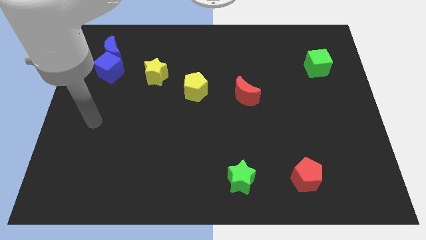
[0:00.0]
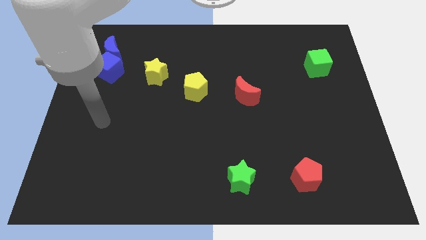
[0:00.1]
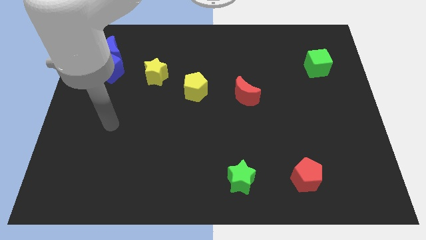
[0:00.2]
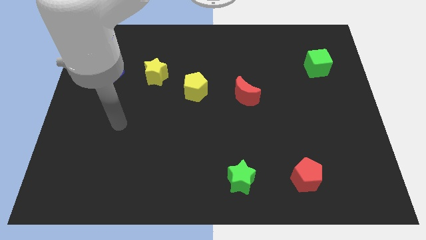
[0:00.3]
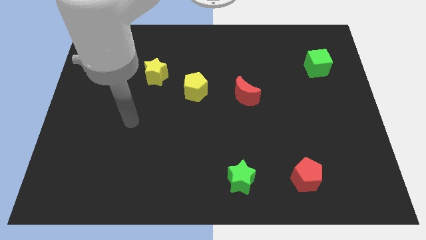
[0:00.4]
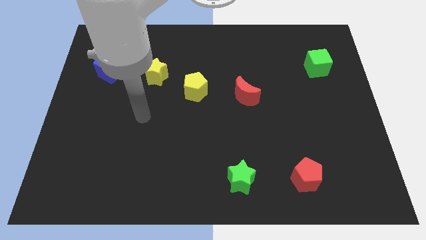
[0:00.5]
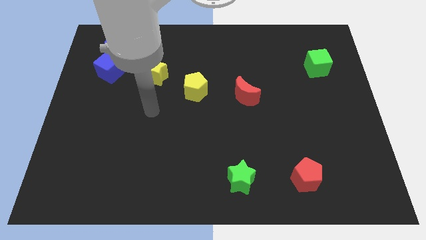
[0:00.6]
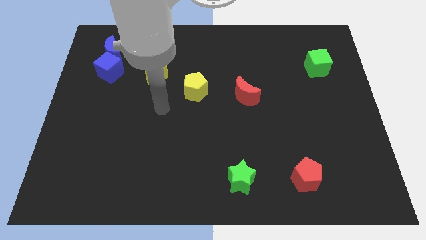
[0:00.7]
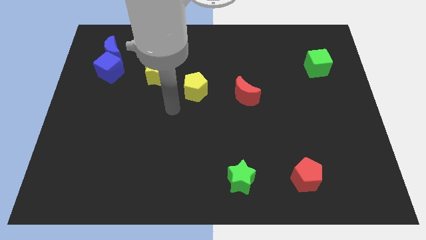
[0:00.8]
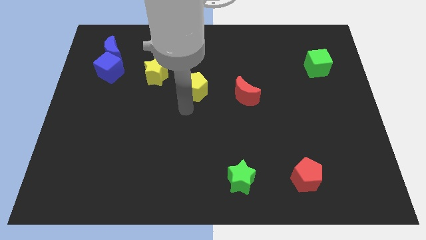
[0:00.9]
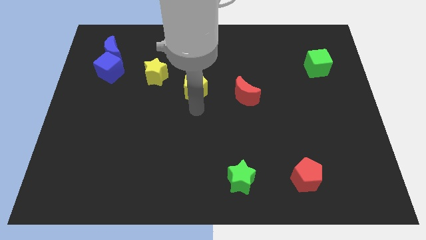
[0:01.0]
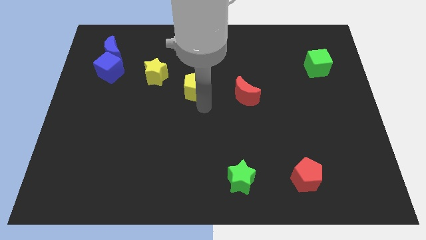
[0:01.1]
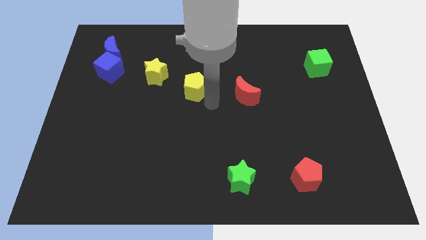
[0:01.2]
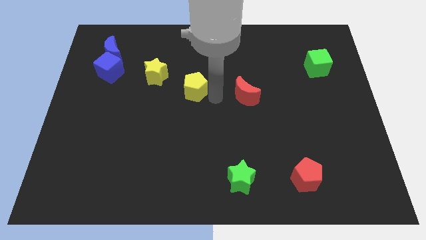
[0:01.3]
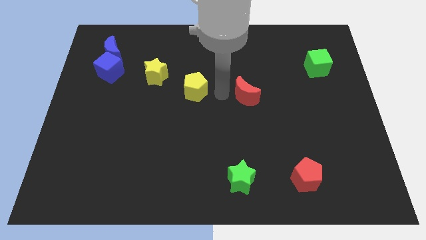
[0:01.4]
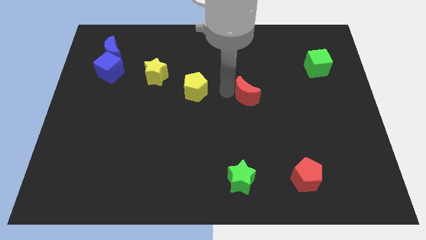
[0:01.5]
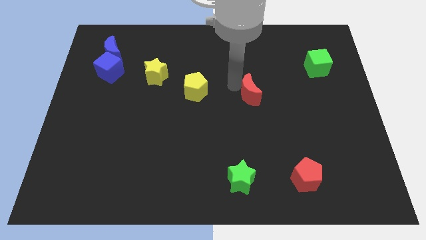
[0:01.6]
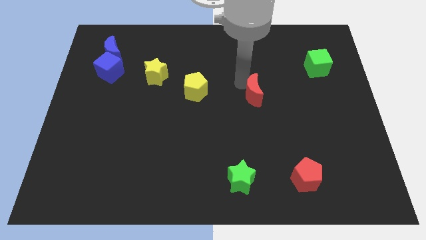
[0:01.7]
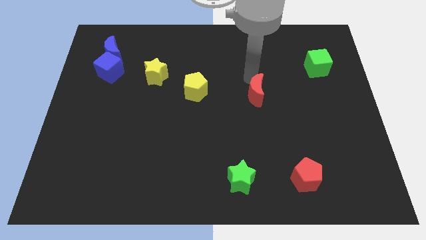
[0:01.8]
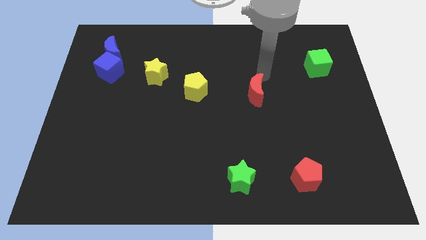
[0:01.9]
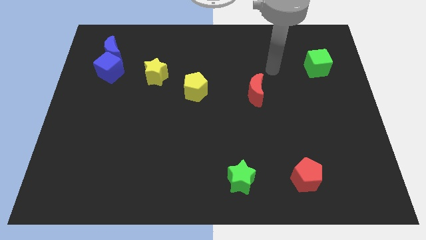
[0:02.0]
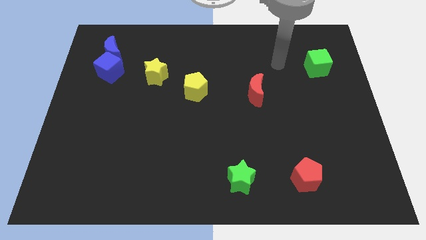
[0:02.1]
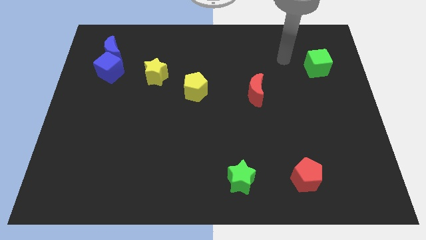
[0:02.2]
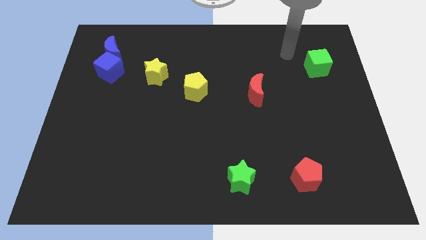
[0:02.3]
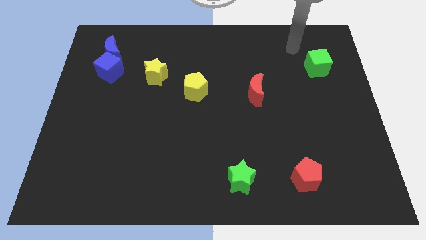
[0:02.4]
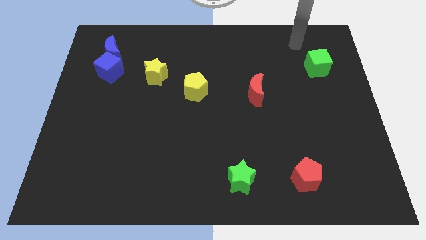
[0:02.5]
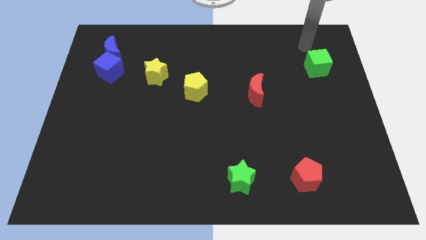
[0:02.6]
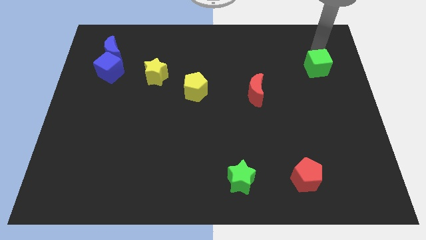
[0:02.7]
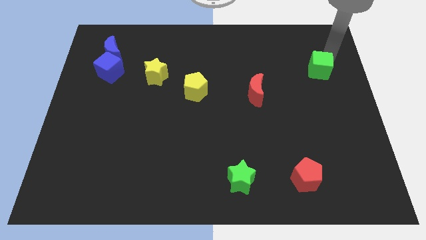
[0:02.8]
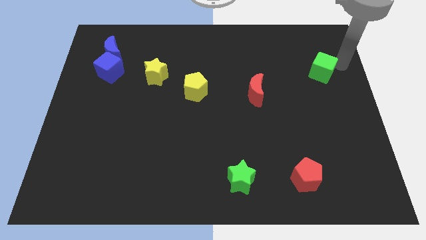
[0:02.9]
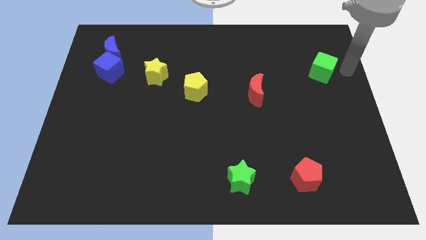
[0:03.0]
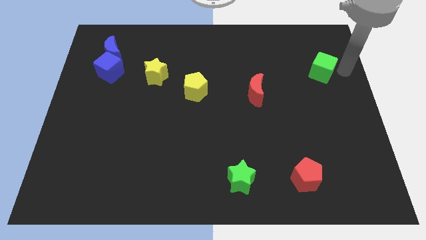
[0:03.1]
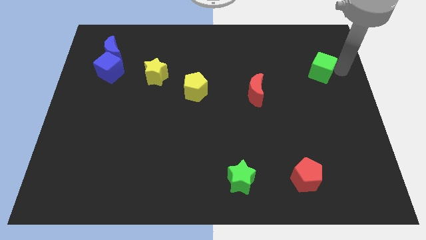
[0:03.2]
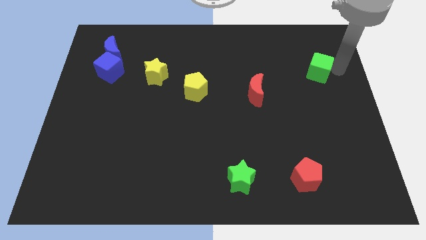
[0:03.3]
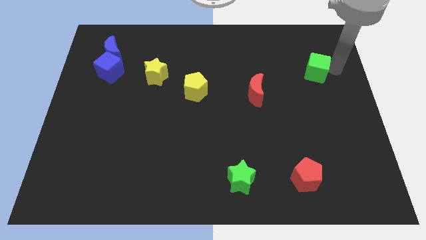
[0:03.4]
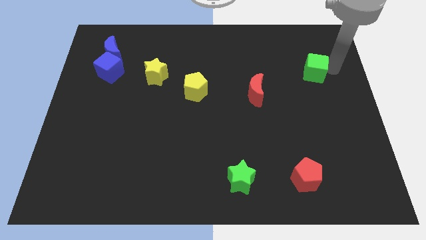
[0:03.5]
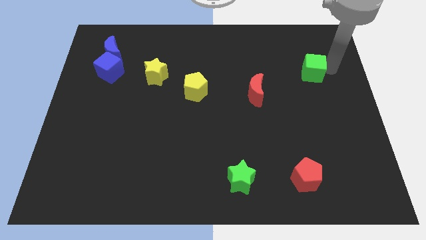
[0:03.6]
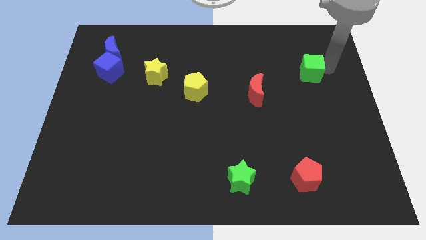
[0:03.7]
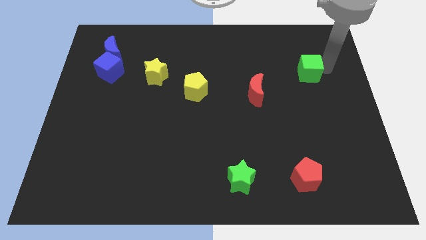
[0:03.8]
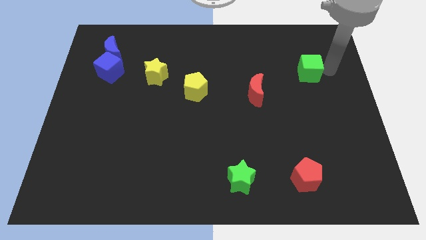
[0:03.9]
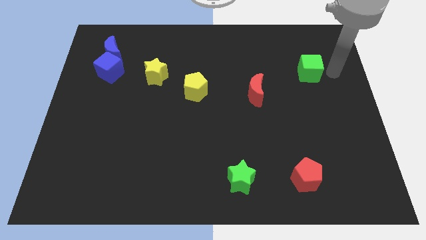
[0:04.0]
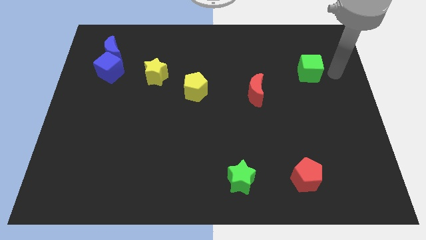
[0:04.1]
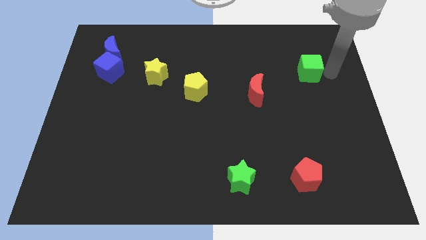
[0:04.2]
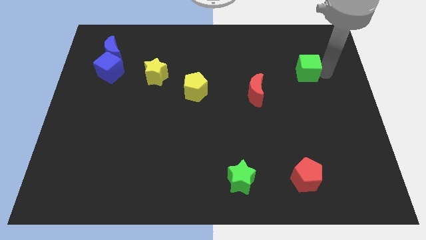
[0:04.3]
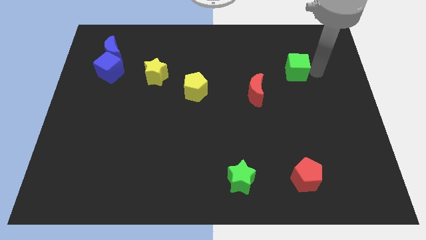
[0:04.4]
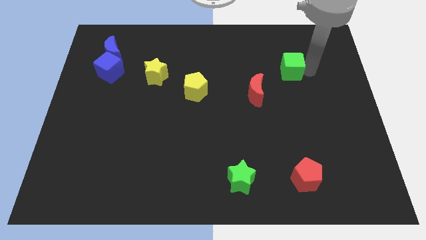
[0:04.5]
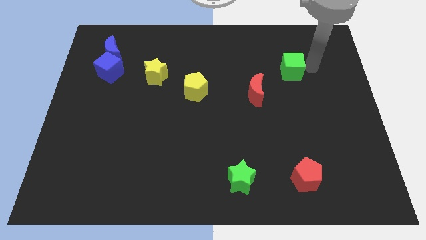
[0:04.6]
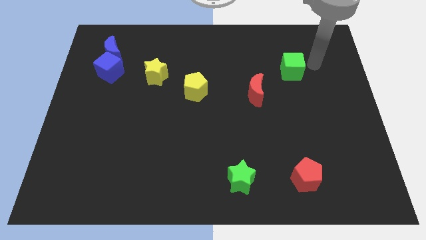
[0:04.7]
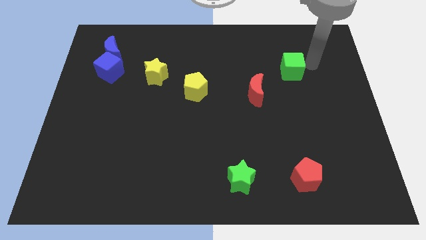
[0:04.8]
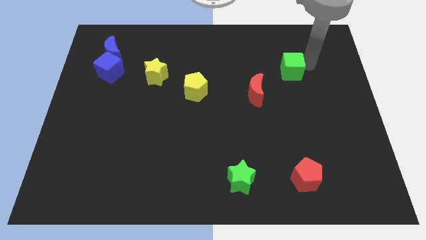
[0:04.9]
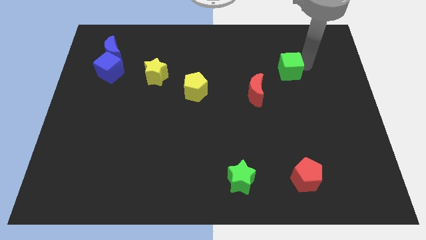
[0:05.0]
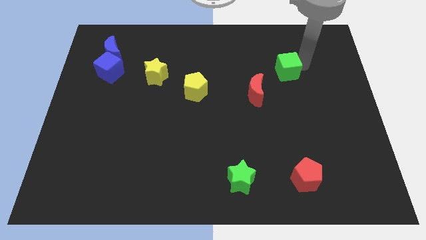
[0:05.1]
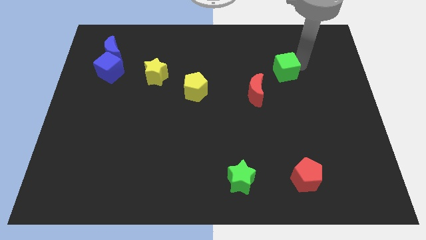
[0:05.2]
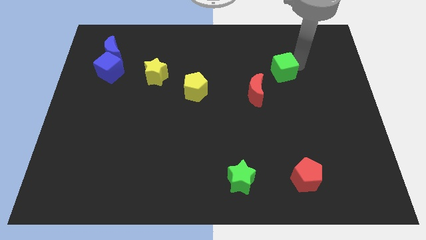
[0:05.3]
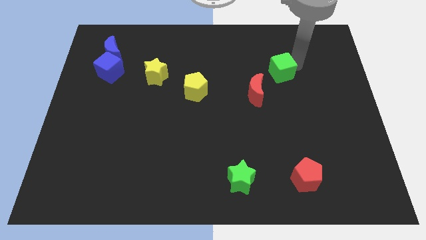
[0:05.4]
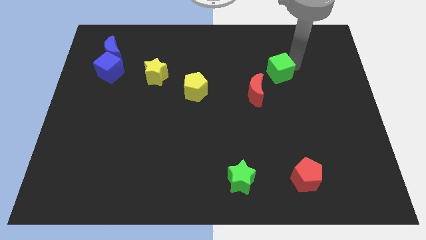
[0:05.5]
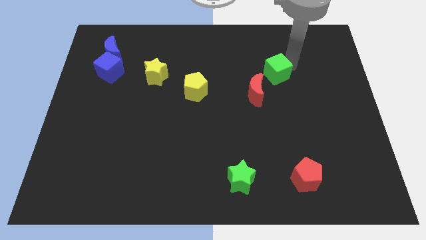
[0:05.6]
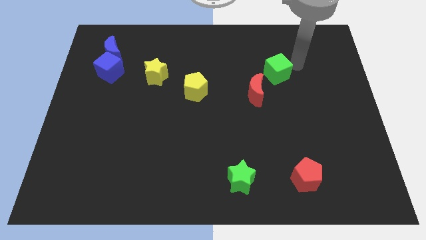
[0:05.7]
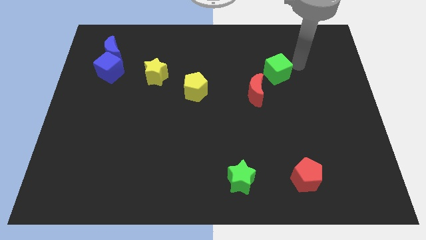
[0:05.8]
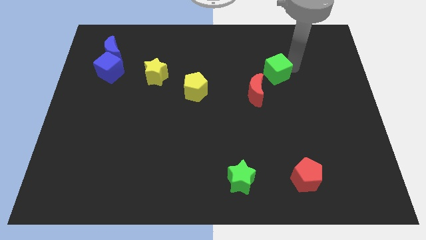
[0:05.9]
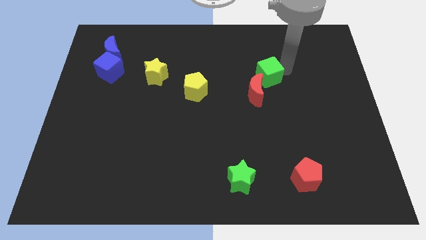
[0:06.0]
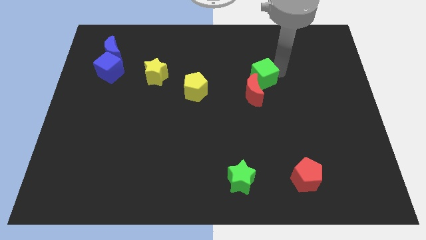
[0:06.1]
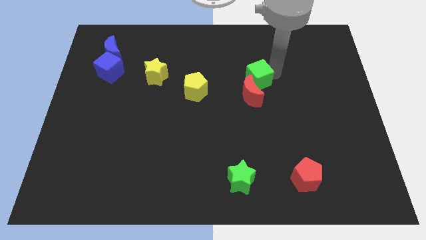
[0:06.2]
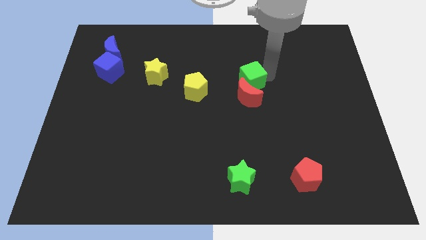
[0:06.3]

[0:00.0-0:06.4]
push the green cube to the center

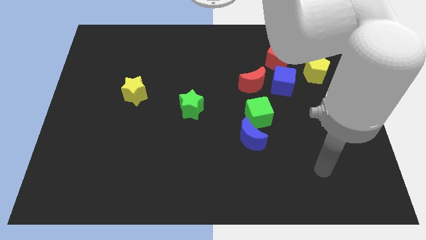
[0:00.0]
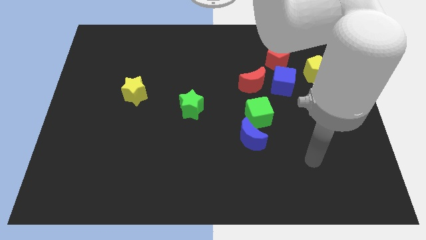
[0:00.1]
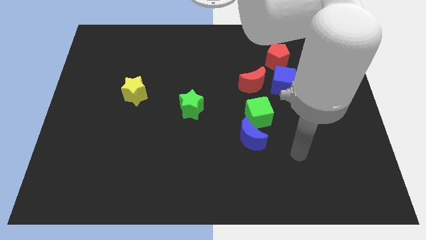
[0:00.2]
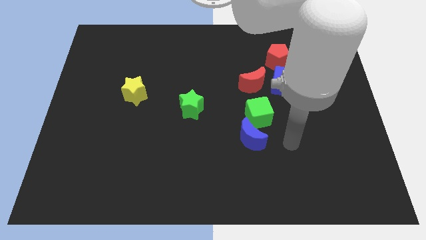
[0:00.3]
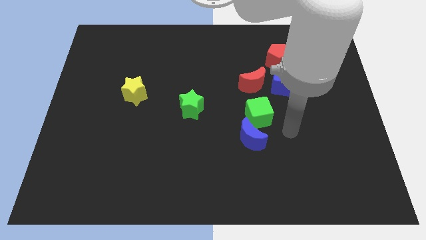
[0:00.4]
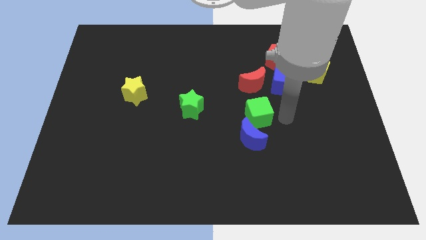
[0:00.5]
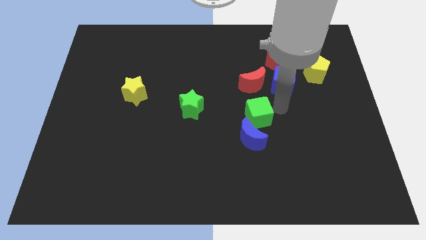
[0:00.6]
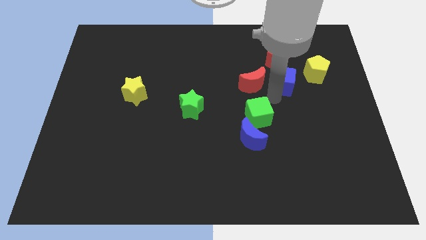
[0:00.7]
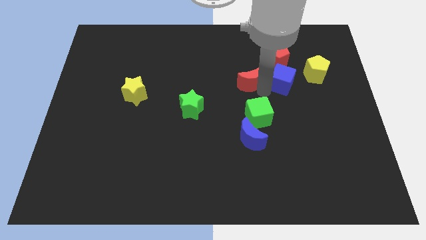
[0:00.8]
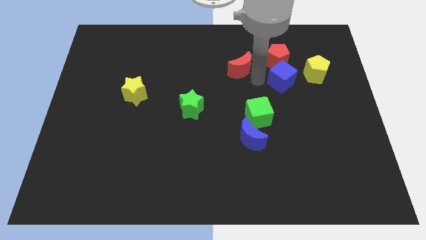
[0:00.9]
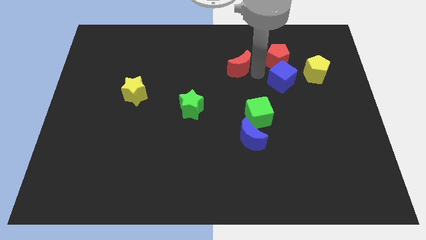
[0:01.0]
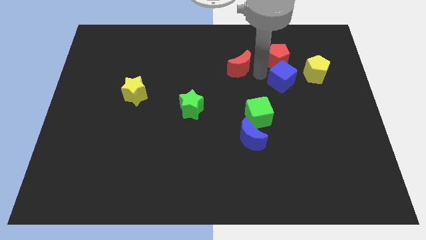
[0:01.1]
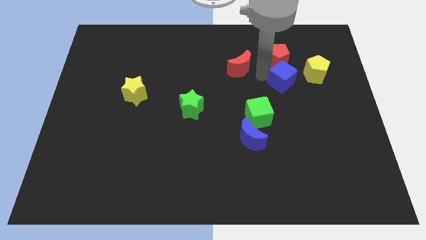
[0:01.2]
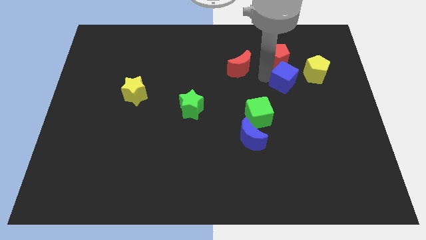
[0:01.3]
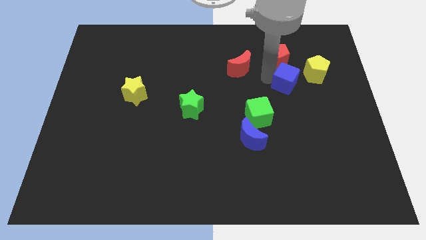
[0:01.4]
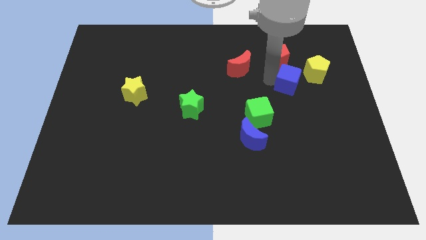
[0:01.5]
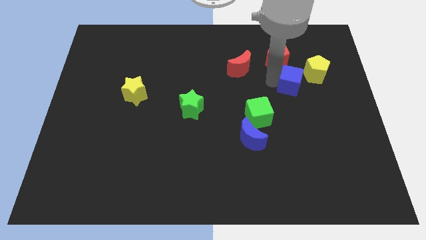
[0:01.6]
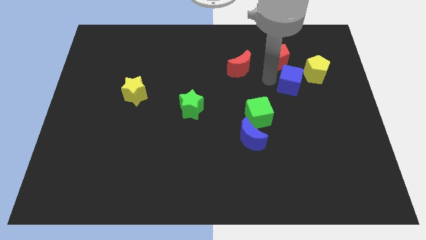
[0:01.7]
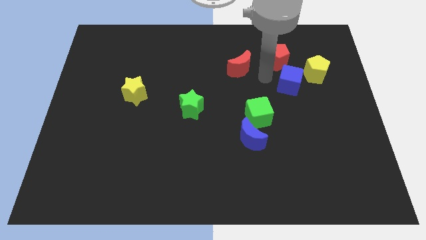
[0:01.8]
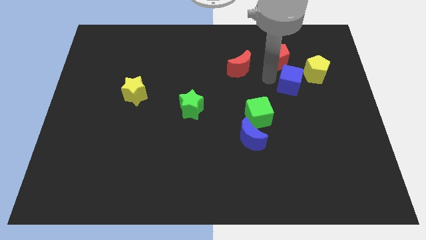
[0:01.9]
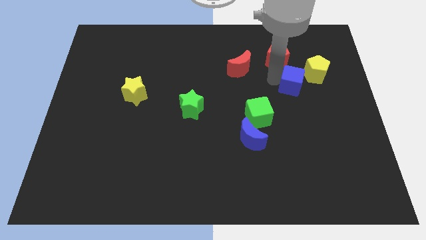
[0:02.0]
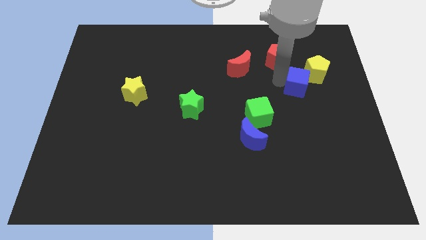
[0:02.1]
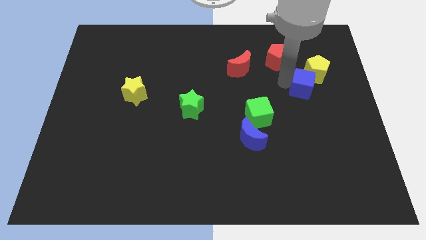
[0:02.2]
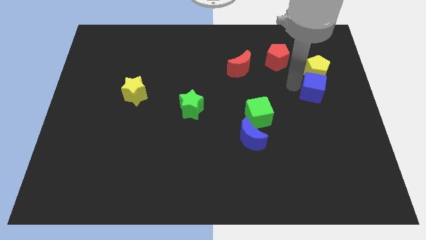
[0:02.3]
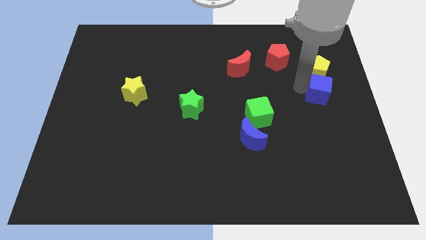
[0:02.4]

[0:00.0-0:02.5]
slide the blue cube to the center right
